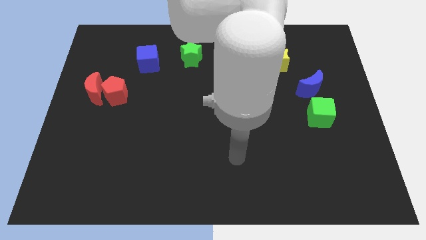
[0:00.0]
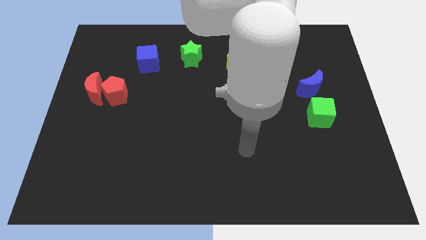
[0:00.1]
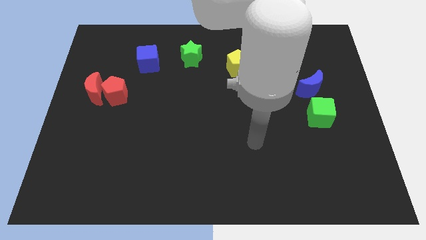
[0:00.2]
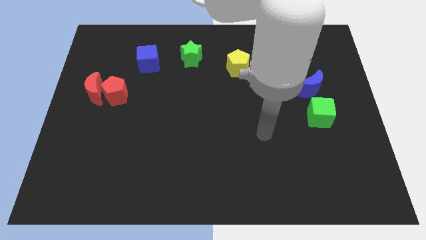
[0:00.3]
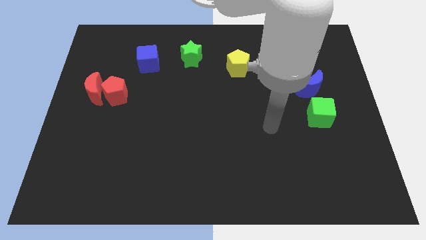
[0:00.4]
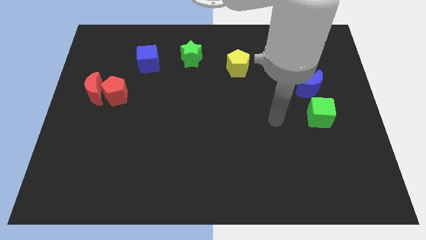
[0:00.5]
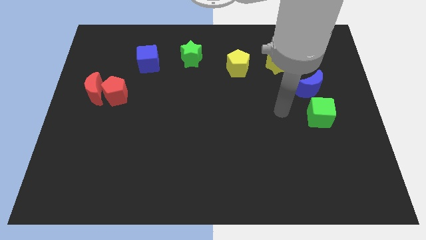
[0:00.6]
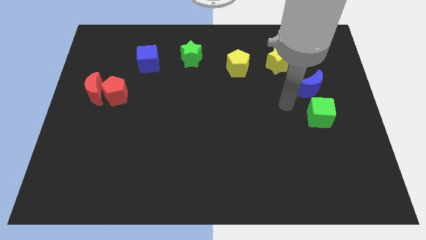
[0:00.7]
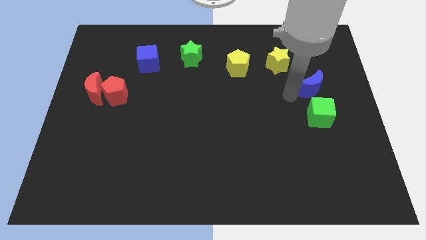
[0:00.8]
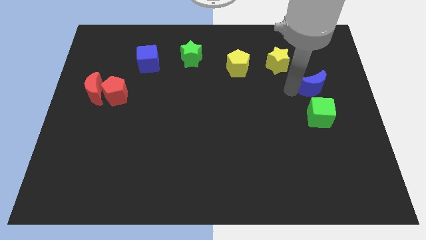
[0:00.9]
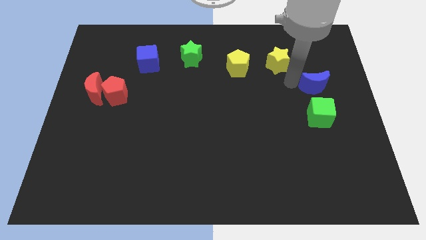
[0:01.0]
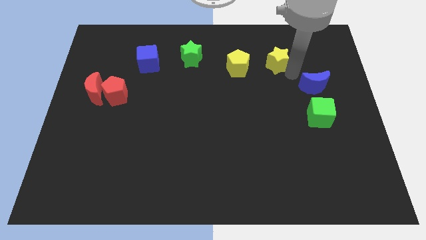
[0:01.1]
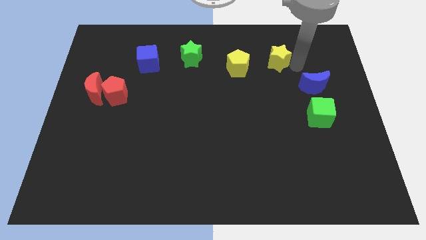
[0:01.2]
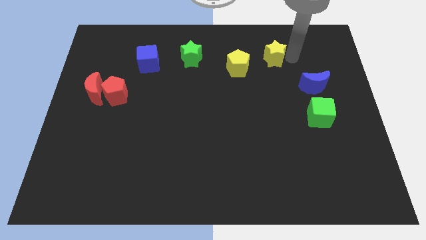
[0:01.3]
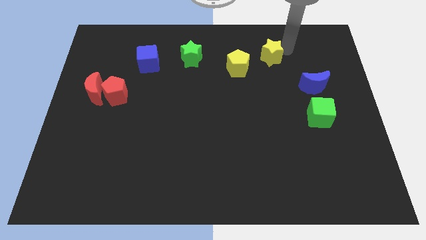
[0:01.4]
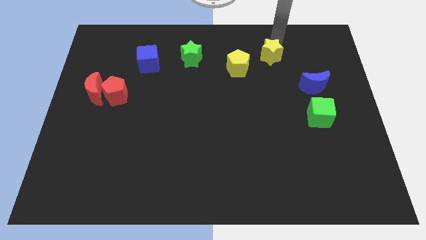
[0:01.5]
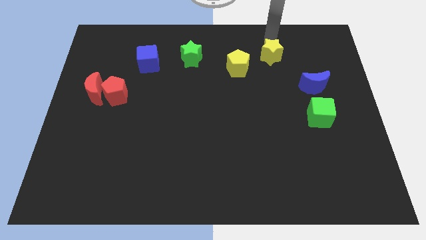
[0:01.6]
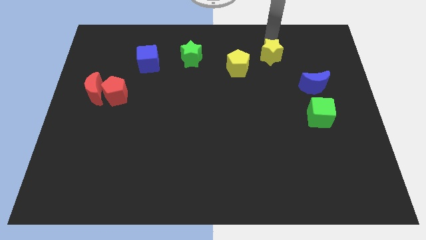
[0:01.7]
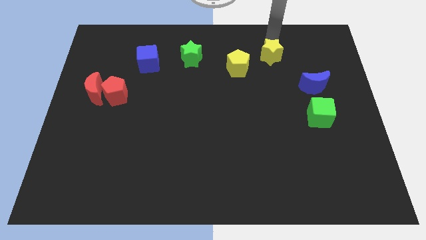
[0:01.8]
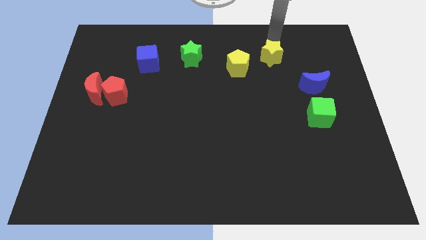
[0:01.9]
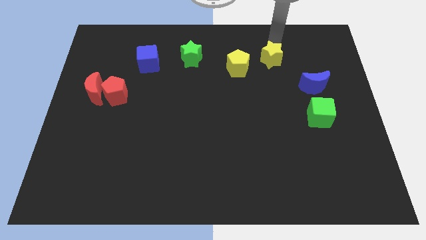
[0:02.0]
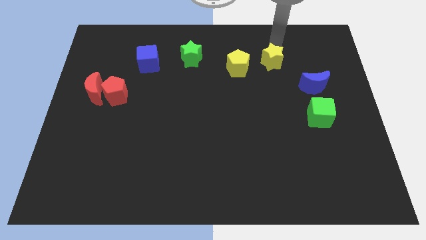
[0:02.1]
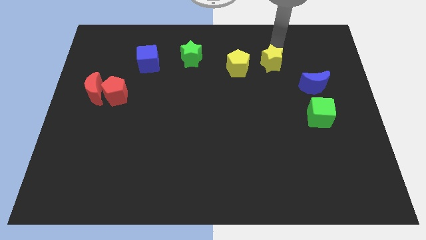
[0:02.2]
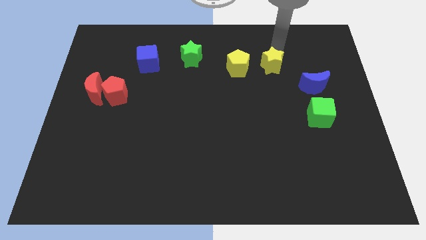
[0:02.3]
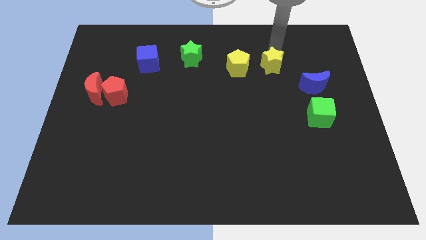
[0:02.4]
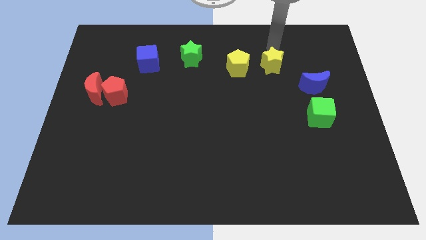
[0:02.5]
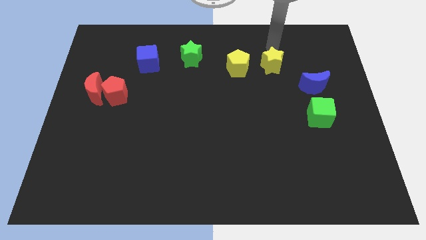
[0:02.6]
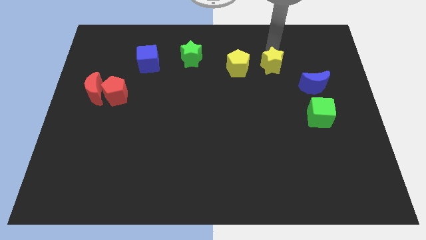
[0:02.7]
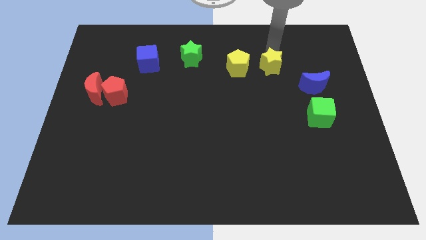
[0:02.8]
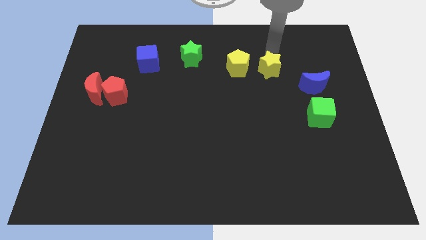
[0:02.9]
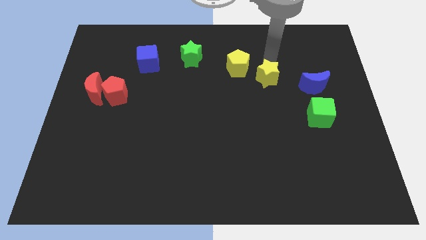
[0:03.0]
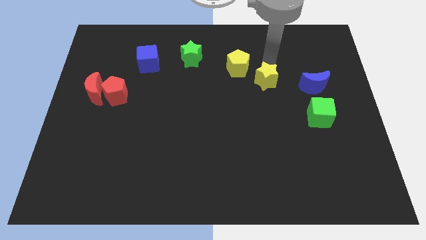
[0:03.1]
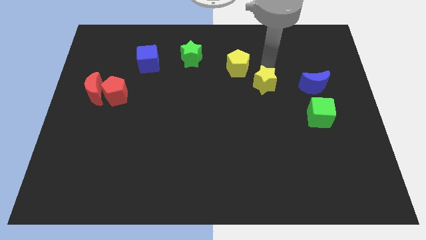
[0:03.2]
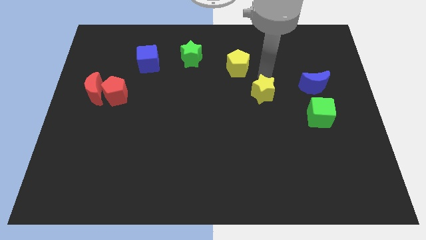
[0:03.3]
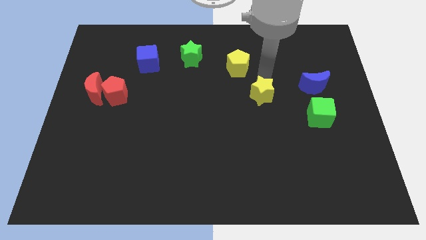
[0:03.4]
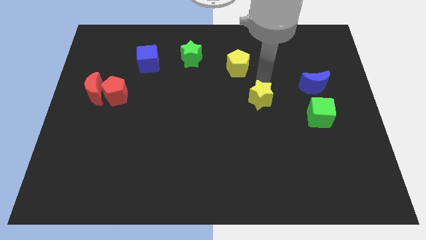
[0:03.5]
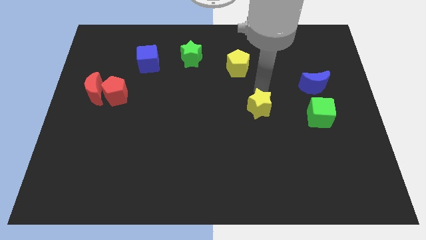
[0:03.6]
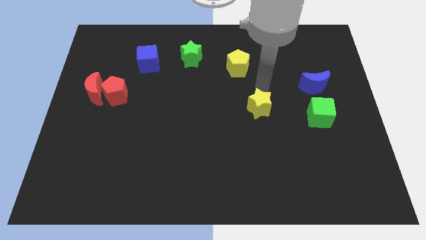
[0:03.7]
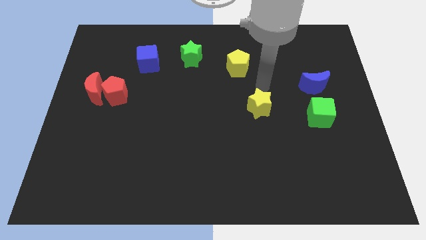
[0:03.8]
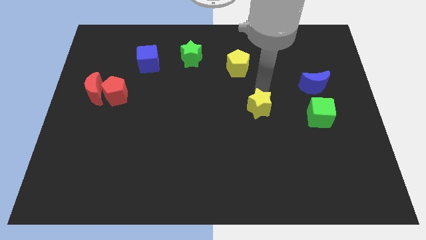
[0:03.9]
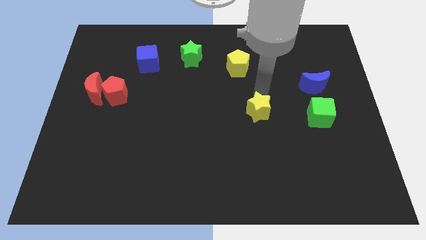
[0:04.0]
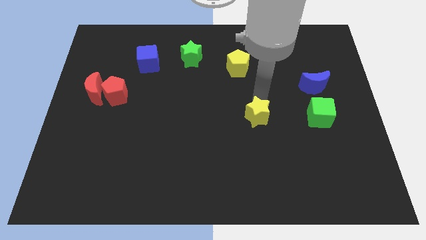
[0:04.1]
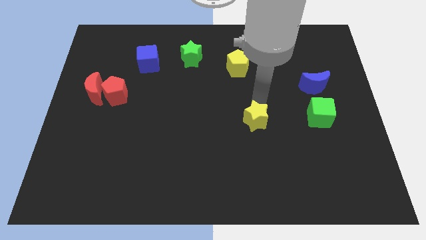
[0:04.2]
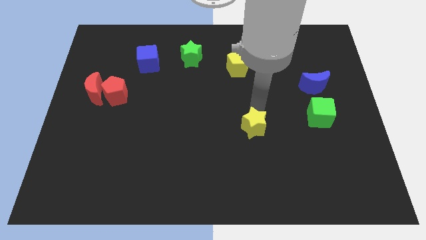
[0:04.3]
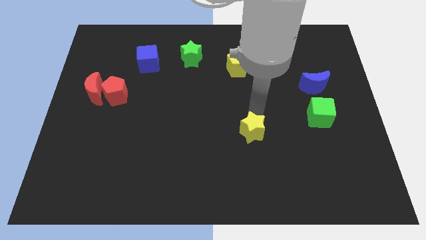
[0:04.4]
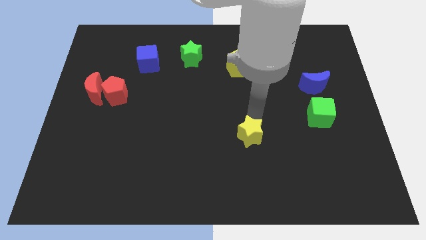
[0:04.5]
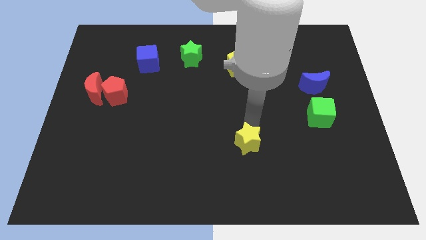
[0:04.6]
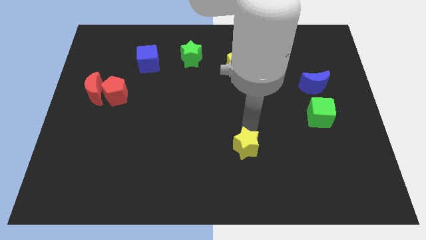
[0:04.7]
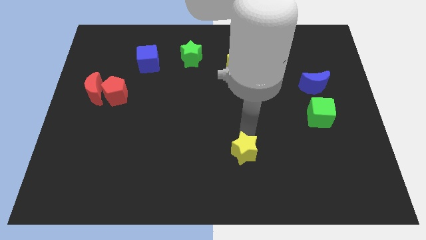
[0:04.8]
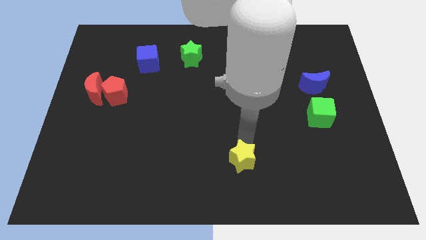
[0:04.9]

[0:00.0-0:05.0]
put the yellow star to the bottom

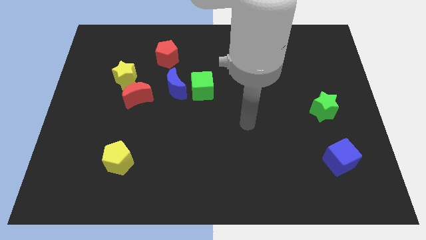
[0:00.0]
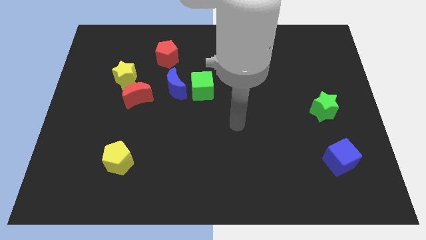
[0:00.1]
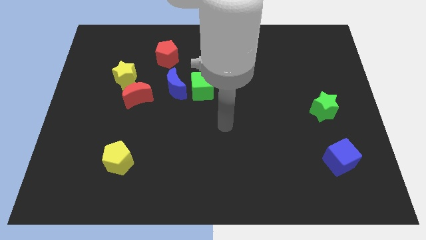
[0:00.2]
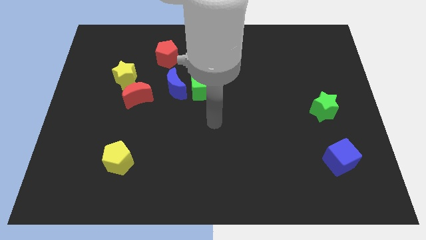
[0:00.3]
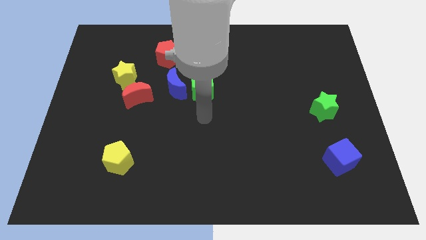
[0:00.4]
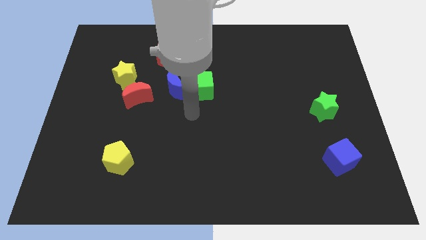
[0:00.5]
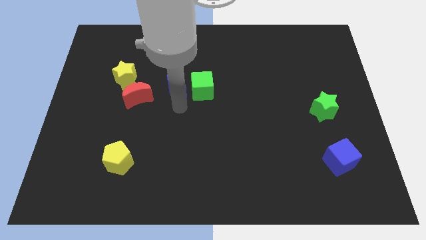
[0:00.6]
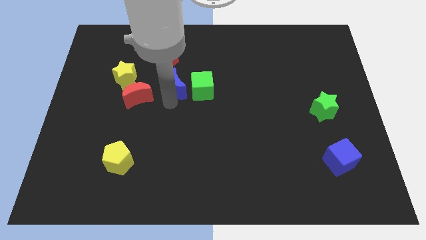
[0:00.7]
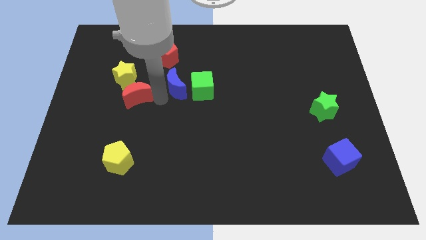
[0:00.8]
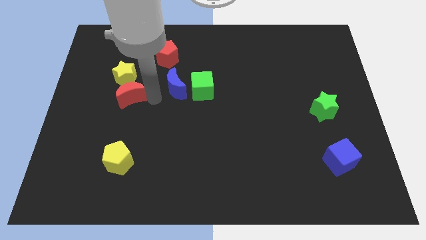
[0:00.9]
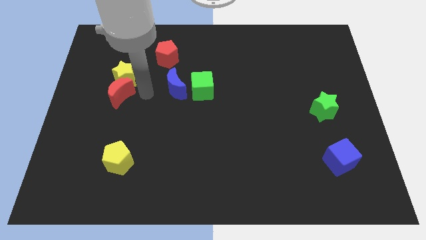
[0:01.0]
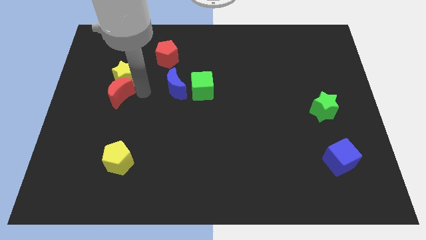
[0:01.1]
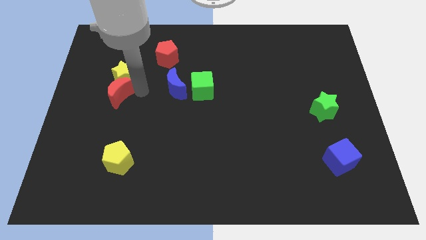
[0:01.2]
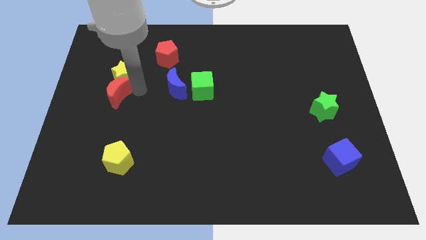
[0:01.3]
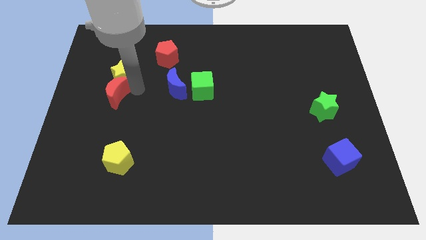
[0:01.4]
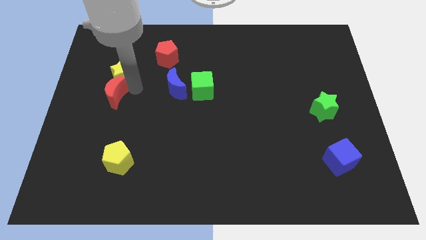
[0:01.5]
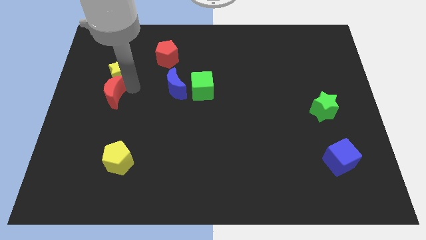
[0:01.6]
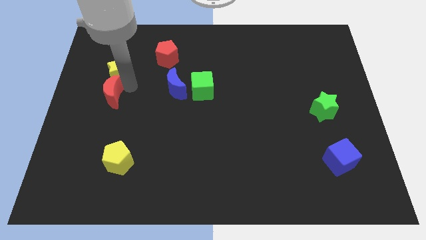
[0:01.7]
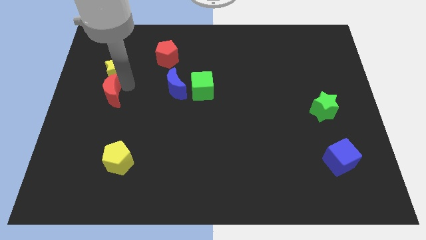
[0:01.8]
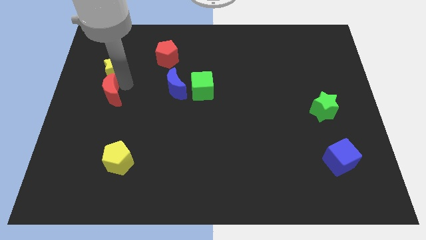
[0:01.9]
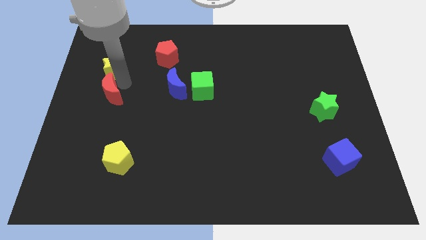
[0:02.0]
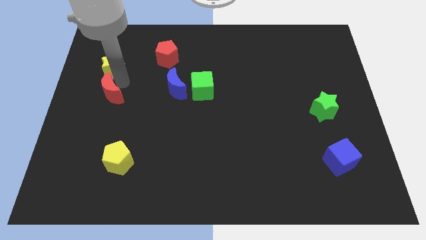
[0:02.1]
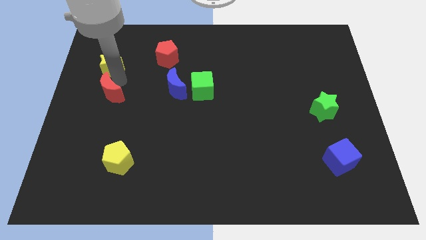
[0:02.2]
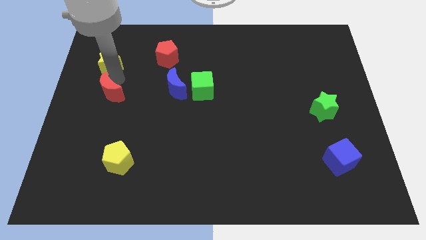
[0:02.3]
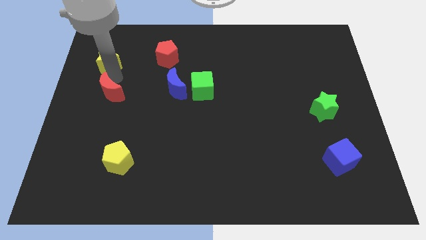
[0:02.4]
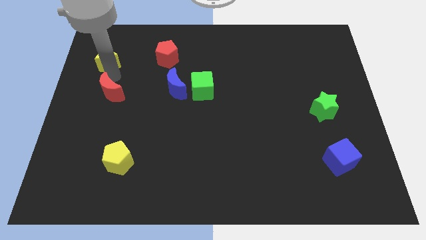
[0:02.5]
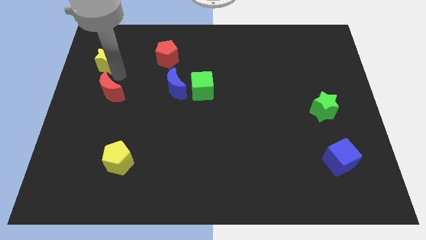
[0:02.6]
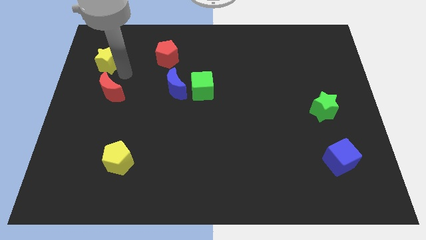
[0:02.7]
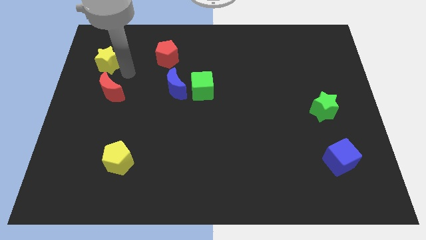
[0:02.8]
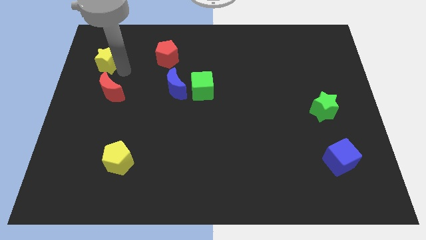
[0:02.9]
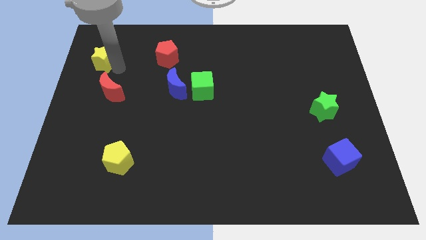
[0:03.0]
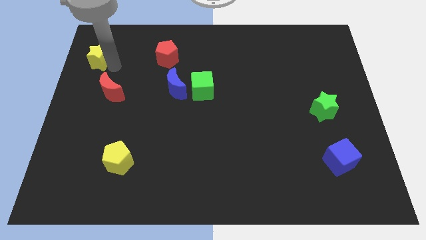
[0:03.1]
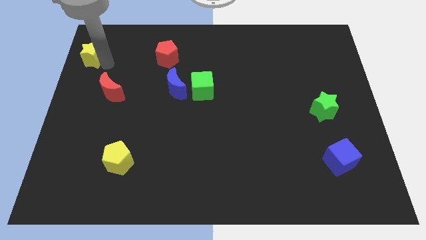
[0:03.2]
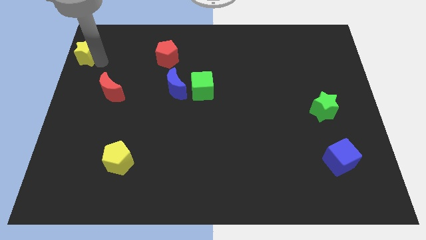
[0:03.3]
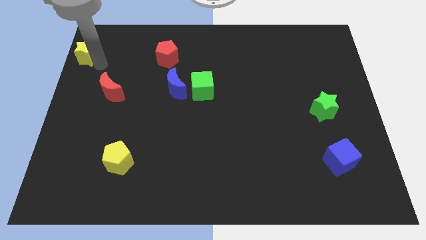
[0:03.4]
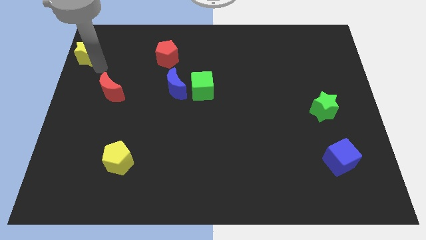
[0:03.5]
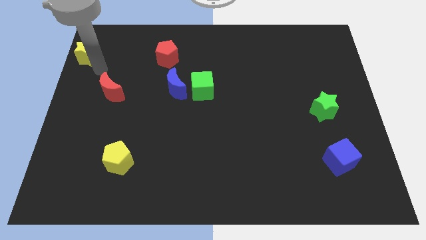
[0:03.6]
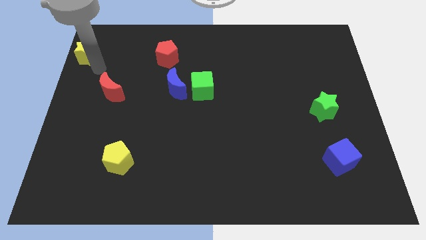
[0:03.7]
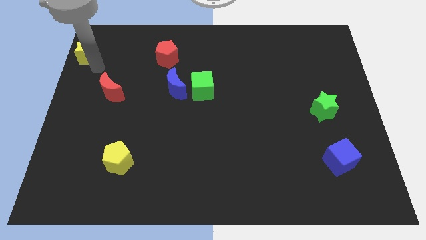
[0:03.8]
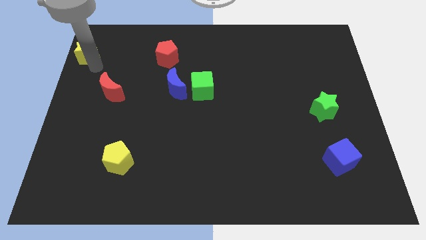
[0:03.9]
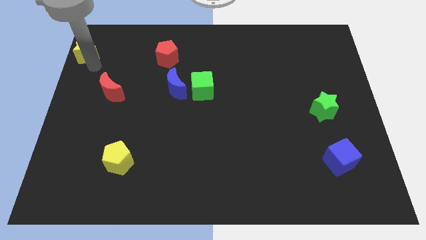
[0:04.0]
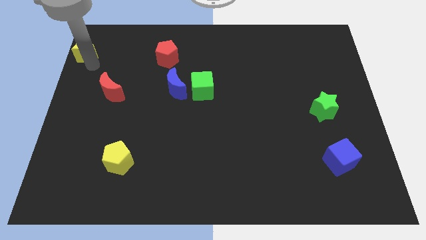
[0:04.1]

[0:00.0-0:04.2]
move the yellow star to the top left
